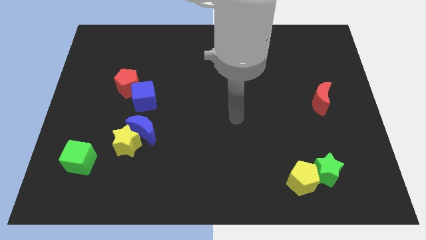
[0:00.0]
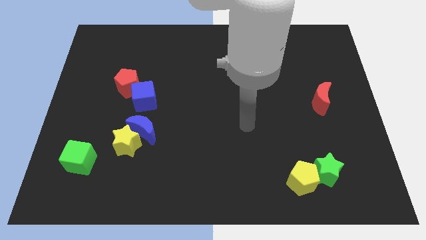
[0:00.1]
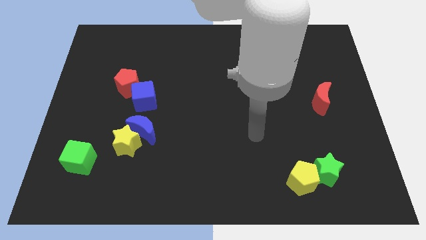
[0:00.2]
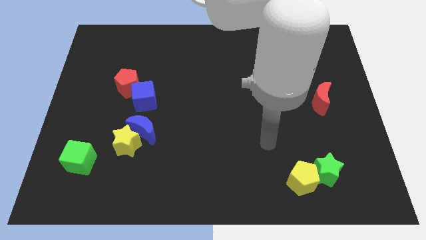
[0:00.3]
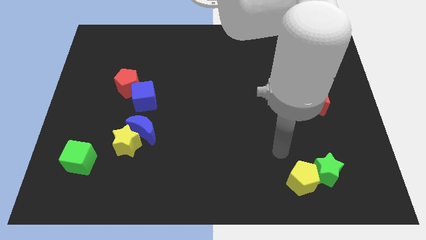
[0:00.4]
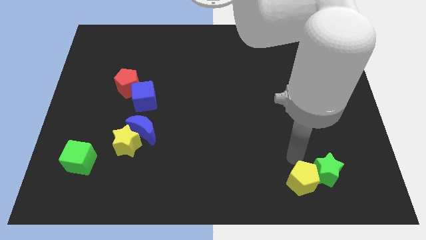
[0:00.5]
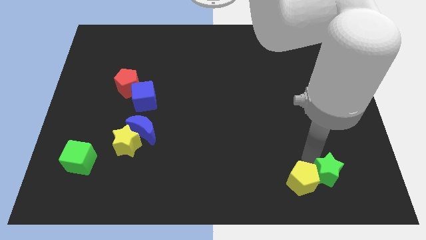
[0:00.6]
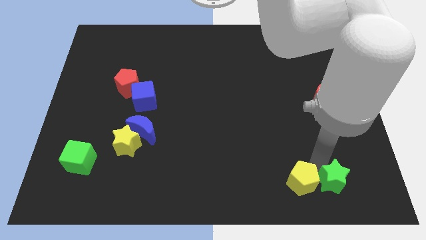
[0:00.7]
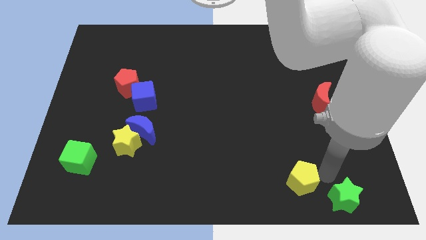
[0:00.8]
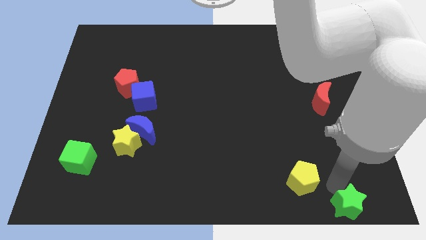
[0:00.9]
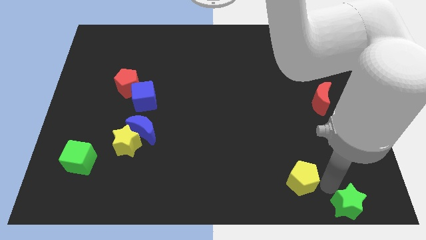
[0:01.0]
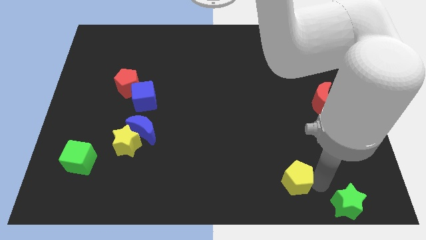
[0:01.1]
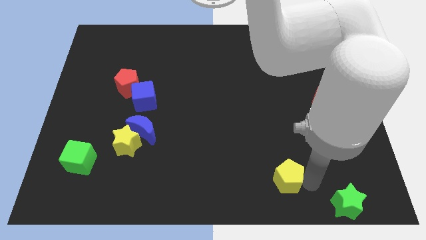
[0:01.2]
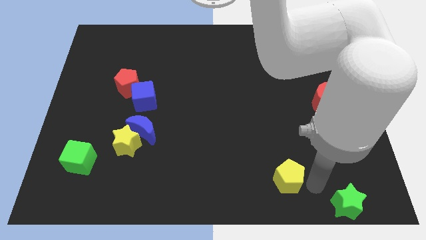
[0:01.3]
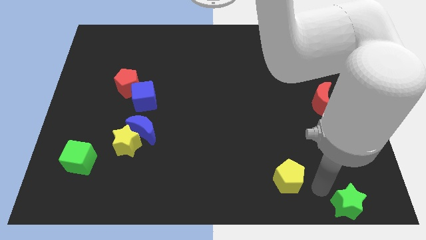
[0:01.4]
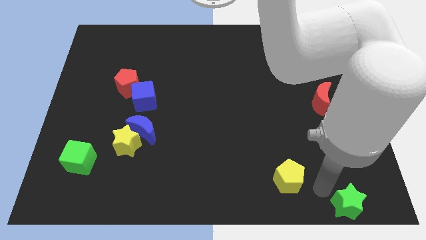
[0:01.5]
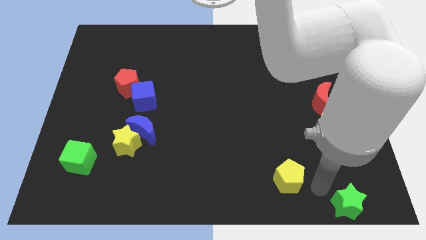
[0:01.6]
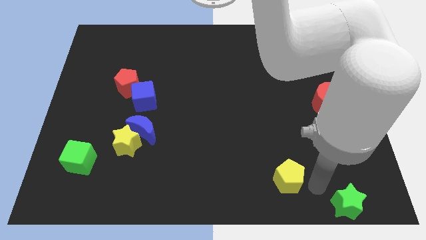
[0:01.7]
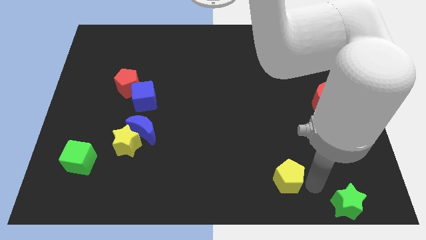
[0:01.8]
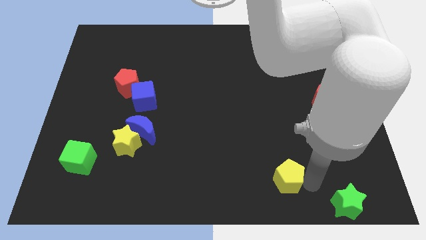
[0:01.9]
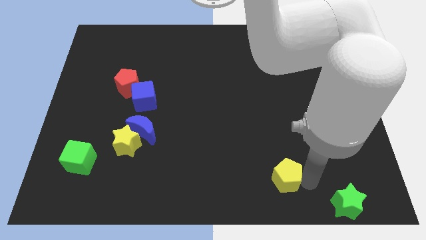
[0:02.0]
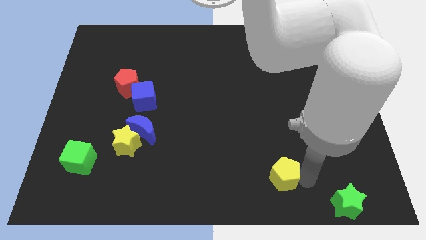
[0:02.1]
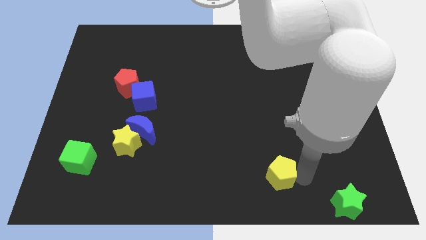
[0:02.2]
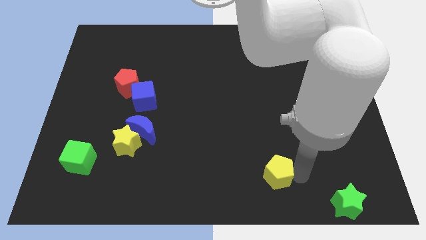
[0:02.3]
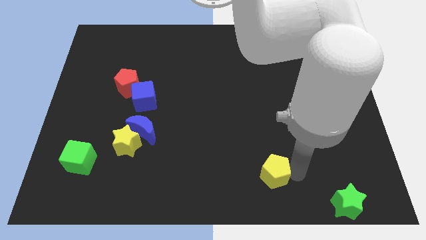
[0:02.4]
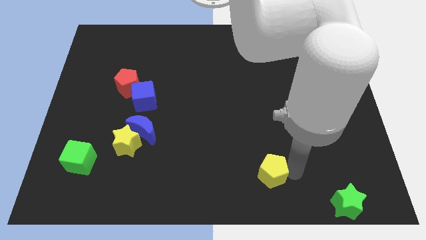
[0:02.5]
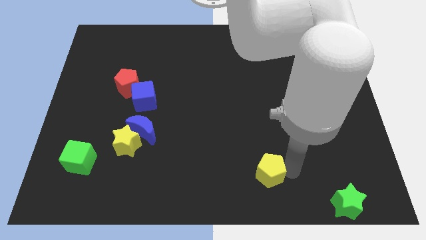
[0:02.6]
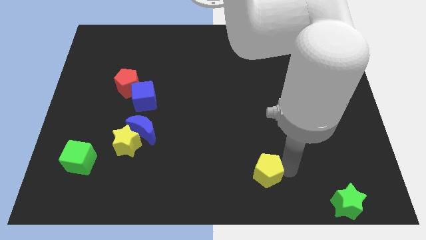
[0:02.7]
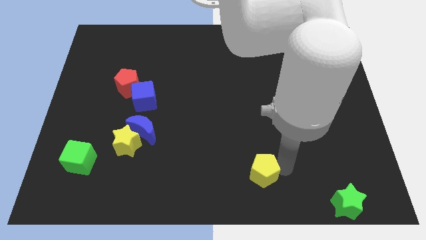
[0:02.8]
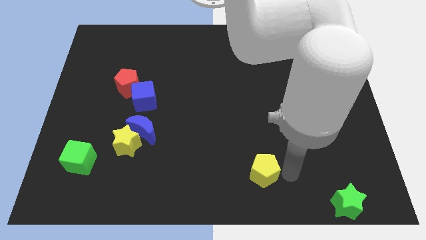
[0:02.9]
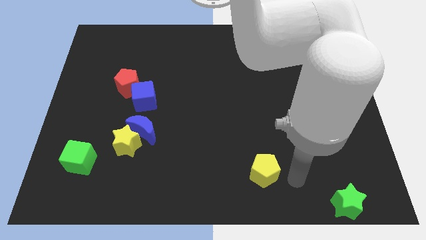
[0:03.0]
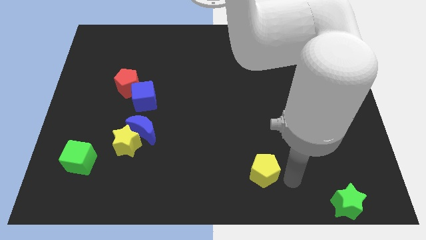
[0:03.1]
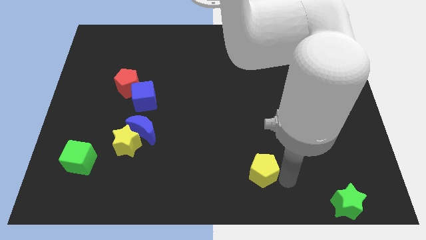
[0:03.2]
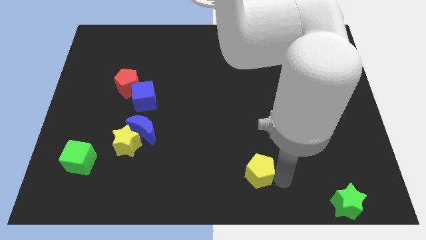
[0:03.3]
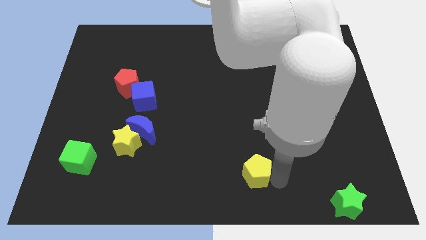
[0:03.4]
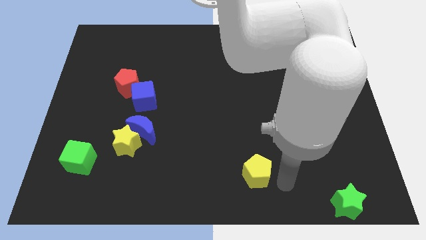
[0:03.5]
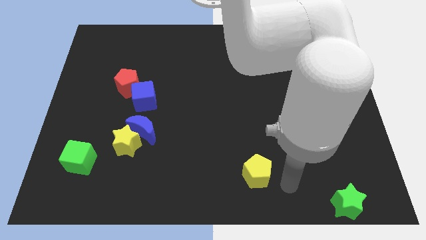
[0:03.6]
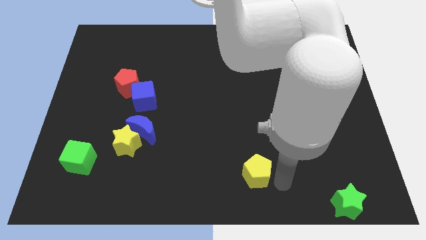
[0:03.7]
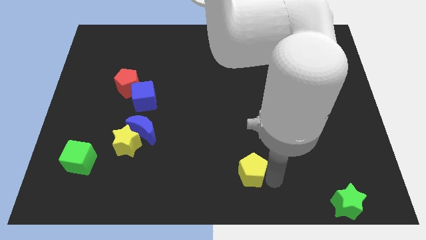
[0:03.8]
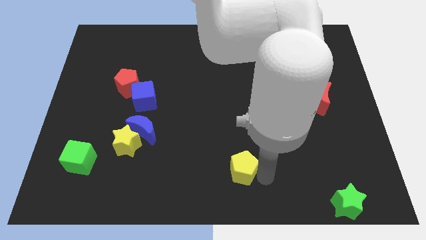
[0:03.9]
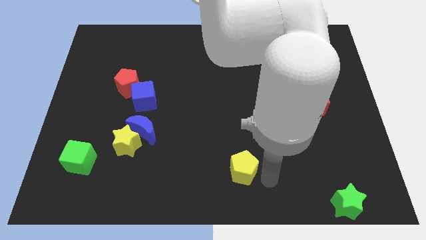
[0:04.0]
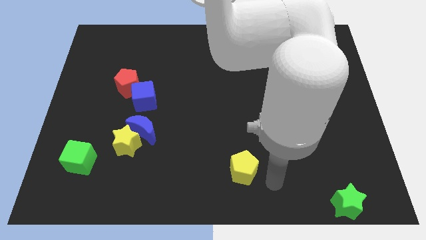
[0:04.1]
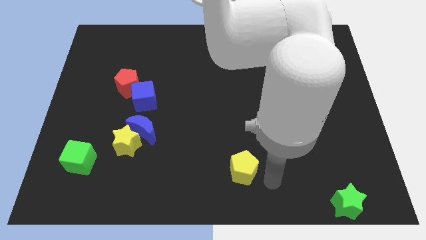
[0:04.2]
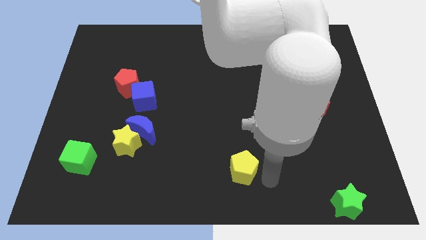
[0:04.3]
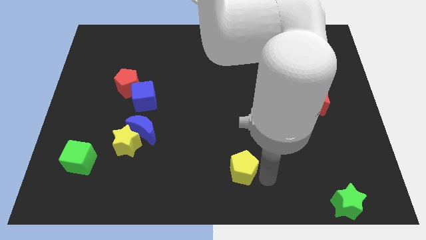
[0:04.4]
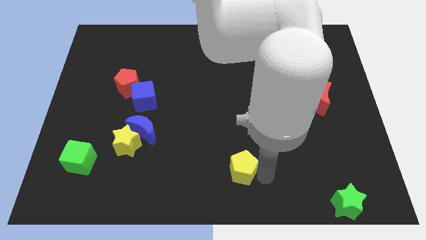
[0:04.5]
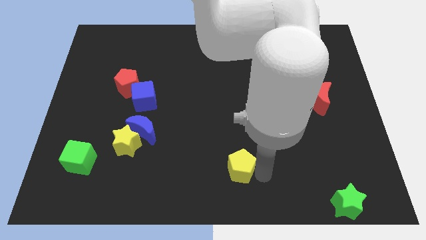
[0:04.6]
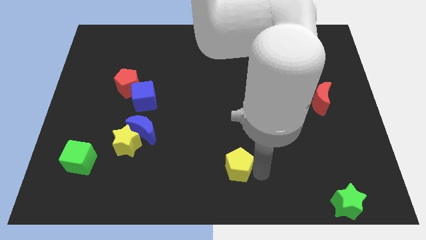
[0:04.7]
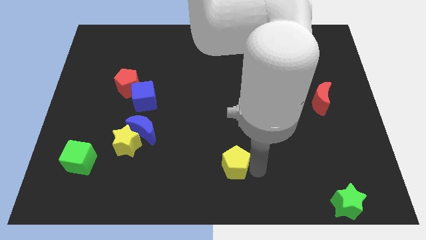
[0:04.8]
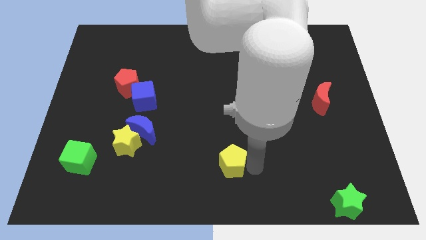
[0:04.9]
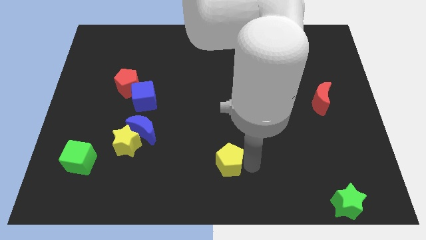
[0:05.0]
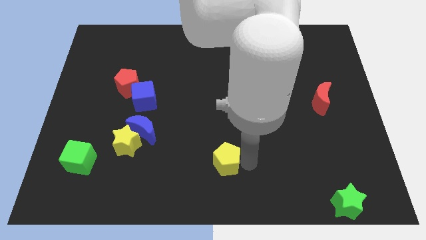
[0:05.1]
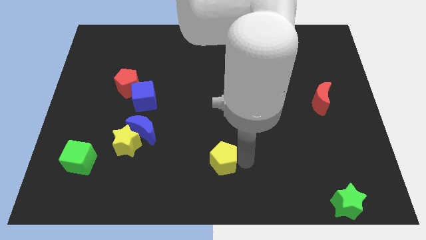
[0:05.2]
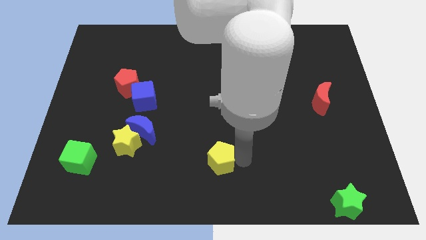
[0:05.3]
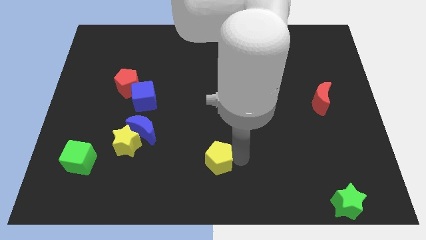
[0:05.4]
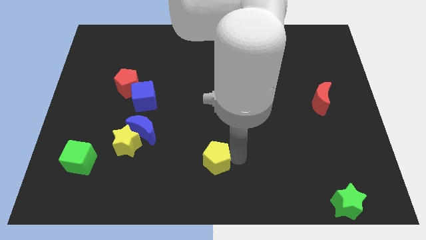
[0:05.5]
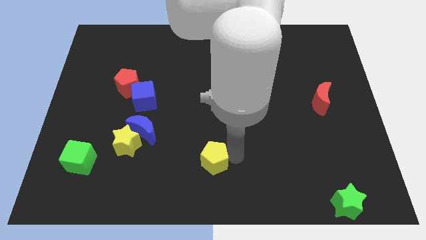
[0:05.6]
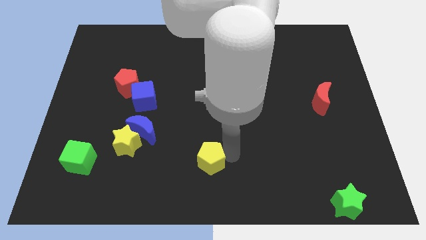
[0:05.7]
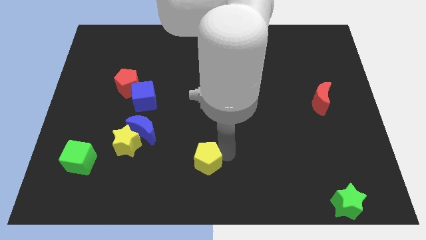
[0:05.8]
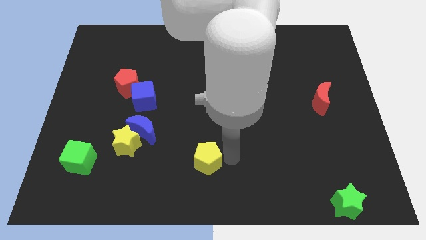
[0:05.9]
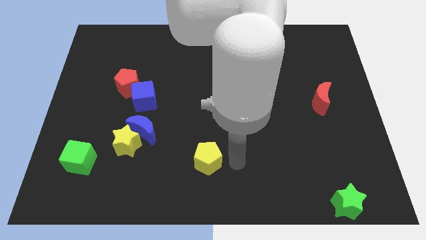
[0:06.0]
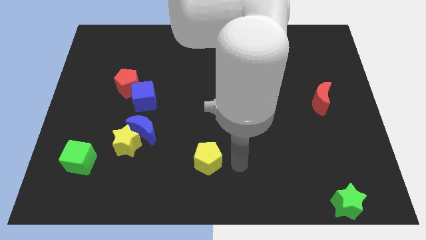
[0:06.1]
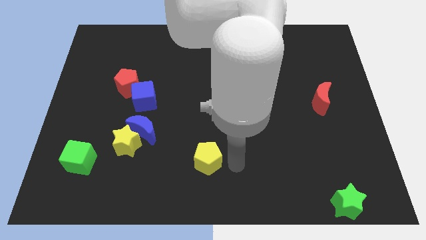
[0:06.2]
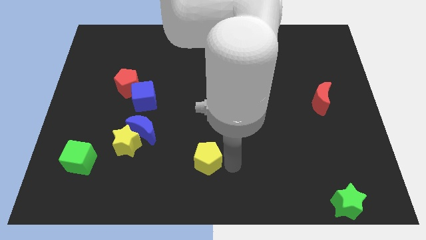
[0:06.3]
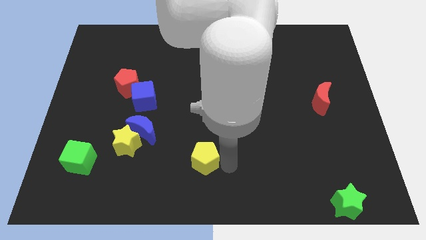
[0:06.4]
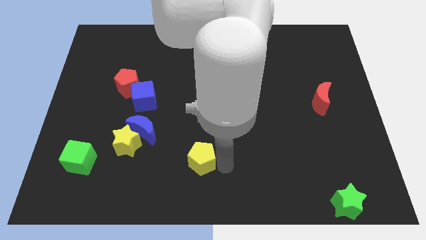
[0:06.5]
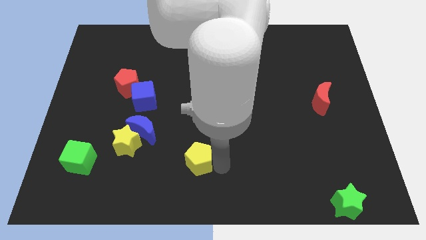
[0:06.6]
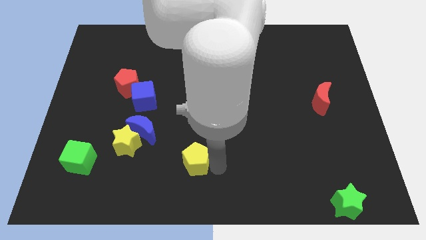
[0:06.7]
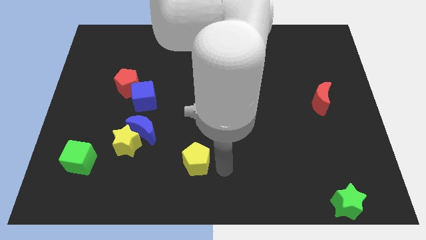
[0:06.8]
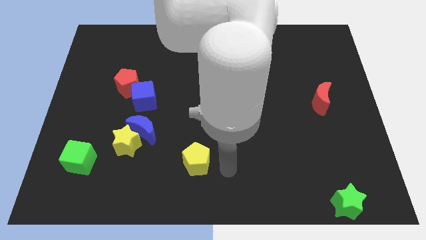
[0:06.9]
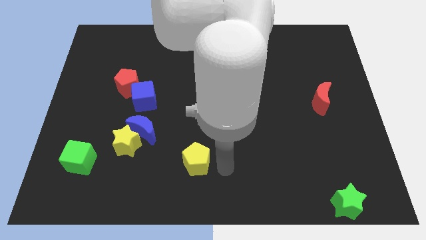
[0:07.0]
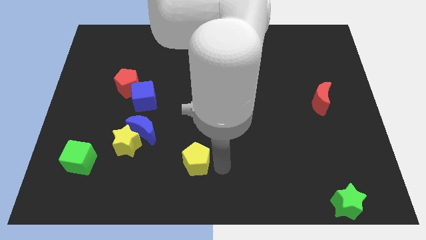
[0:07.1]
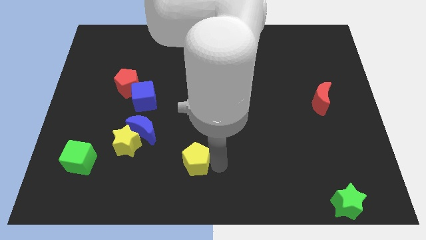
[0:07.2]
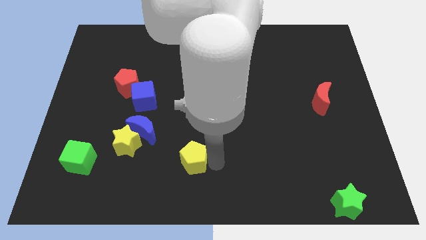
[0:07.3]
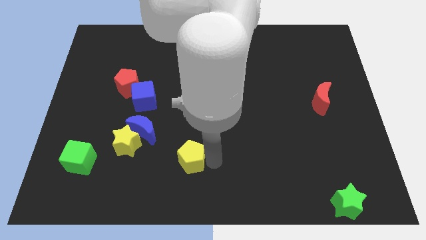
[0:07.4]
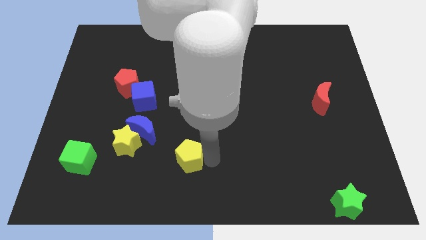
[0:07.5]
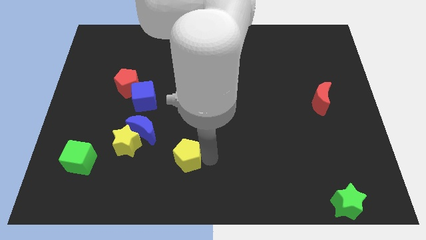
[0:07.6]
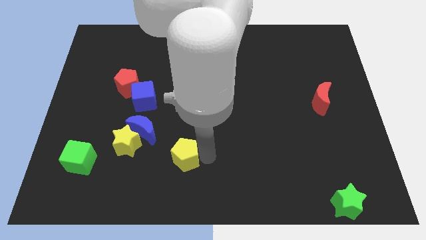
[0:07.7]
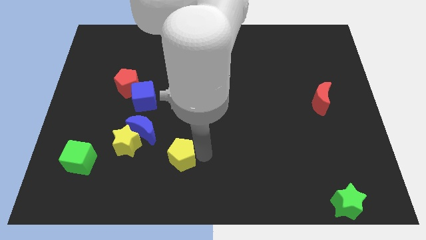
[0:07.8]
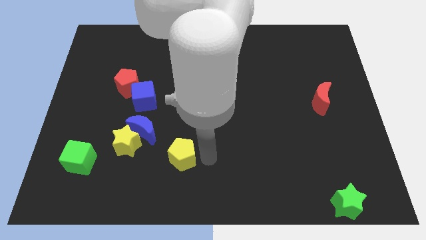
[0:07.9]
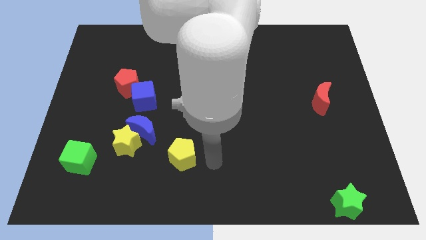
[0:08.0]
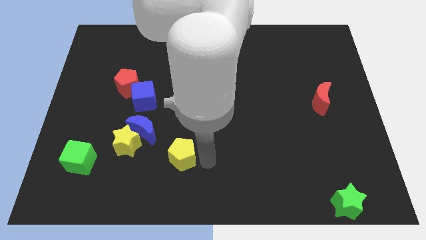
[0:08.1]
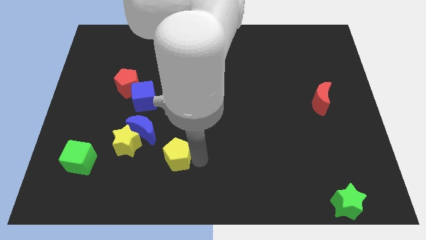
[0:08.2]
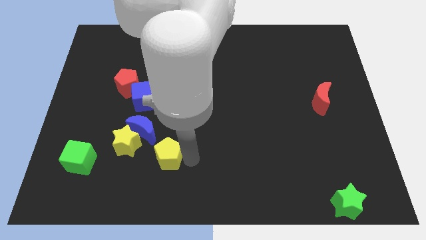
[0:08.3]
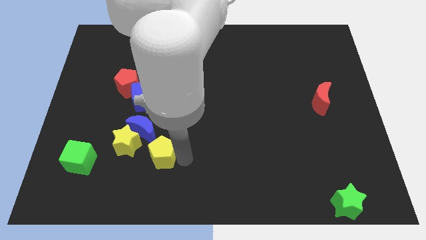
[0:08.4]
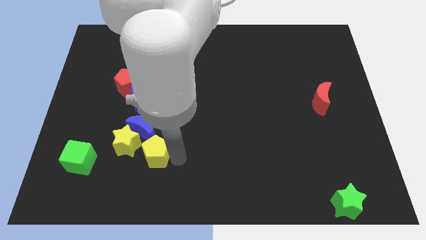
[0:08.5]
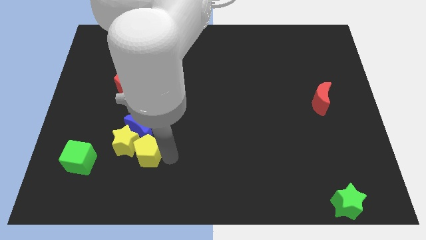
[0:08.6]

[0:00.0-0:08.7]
push the yellow pentagon close to the yellow star
